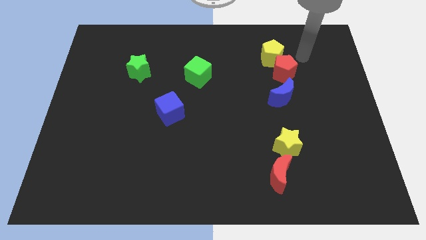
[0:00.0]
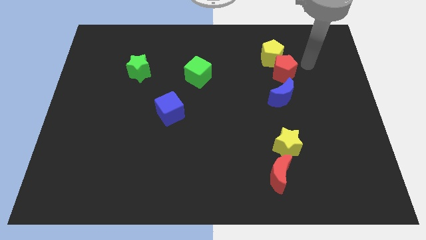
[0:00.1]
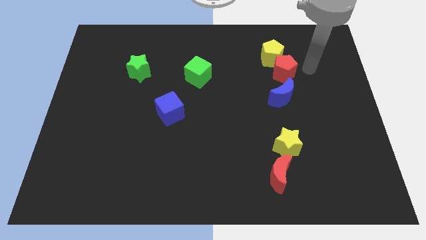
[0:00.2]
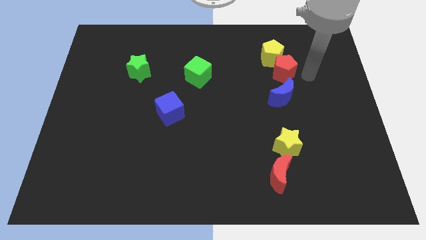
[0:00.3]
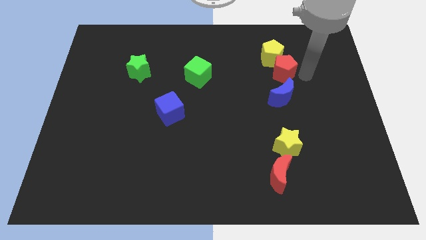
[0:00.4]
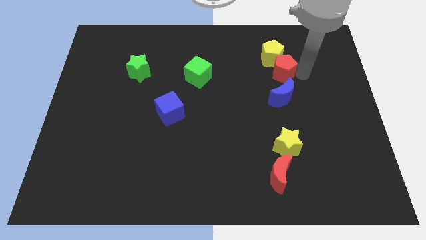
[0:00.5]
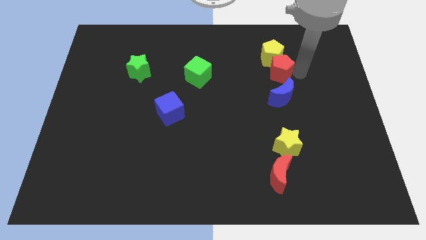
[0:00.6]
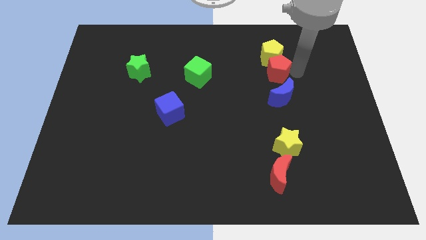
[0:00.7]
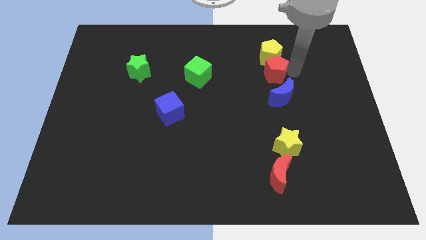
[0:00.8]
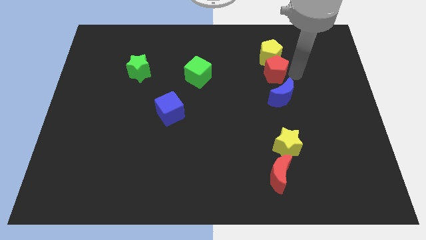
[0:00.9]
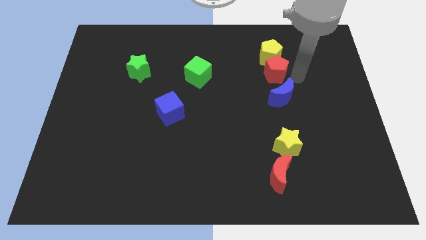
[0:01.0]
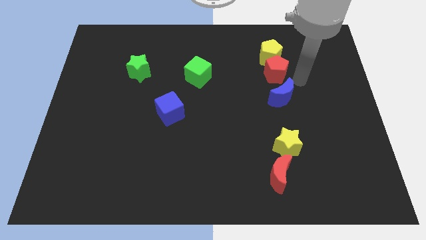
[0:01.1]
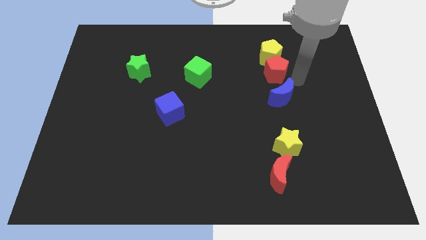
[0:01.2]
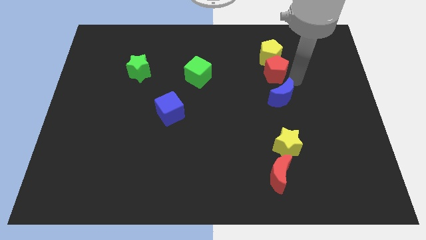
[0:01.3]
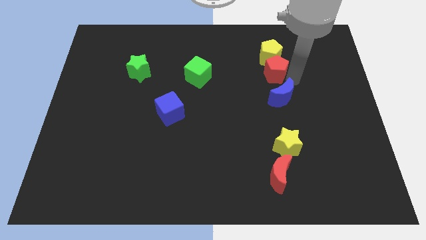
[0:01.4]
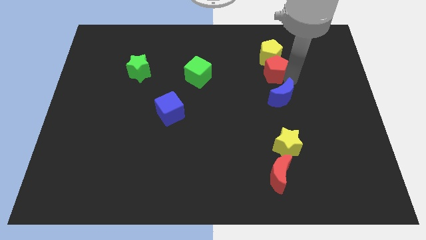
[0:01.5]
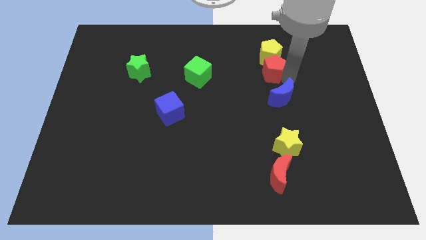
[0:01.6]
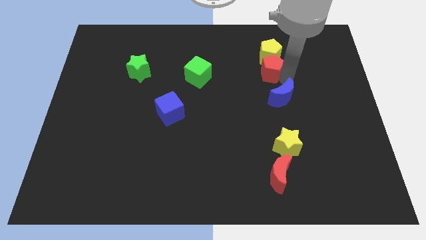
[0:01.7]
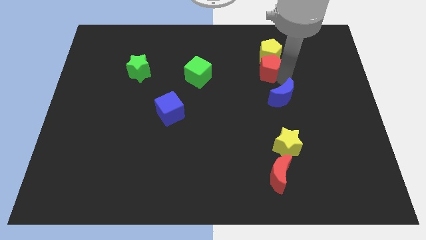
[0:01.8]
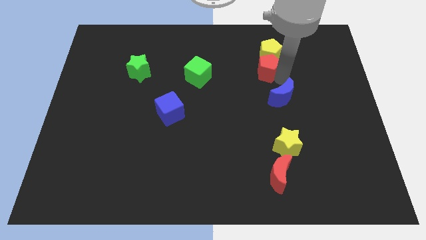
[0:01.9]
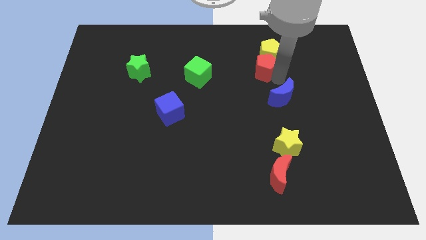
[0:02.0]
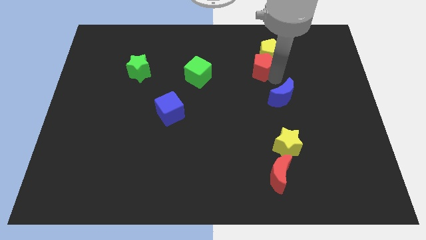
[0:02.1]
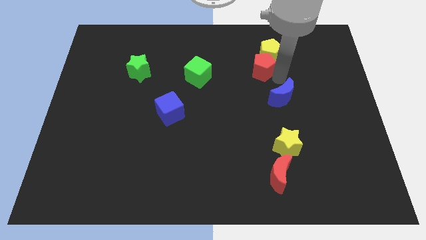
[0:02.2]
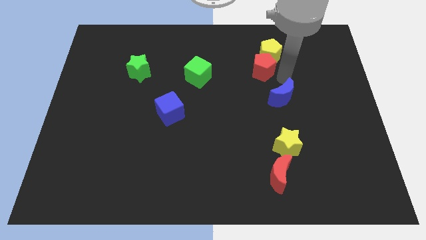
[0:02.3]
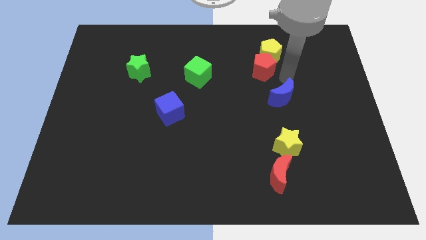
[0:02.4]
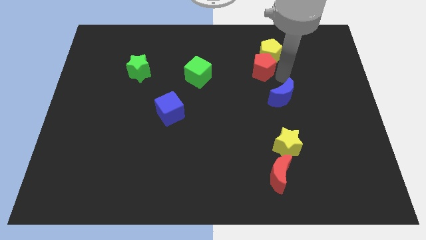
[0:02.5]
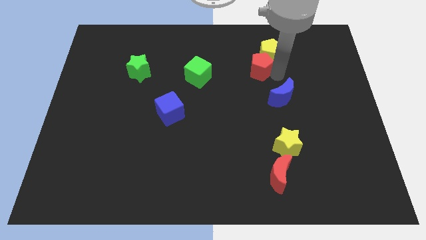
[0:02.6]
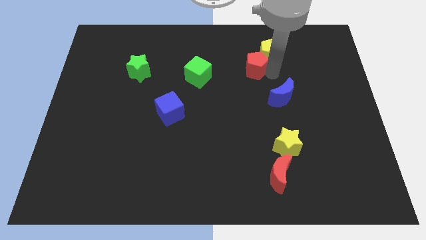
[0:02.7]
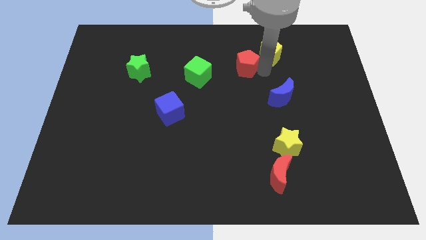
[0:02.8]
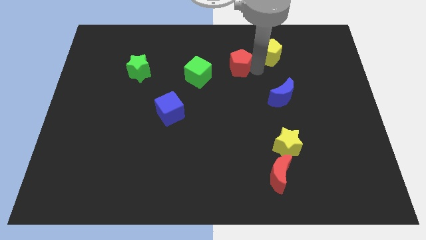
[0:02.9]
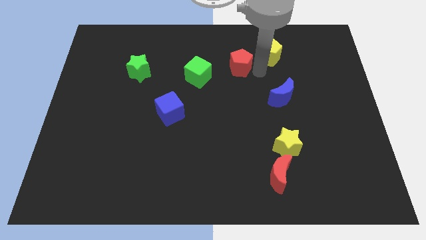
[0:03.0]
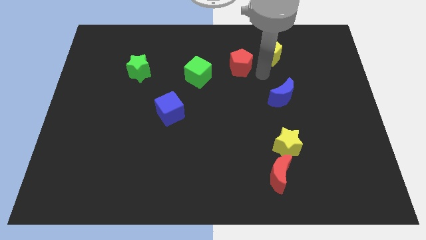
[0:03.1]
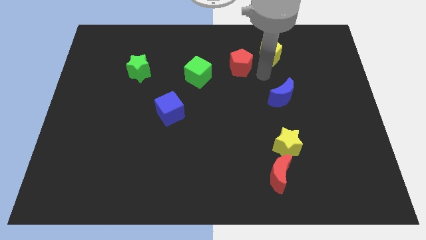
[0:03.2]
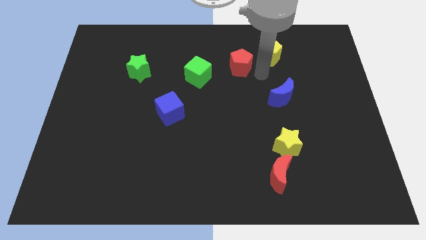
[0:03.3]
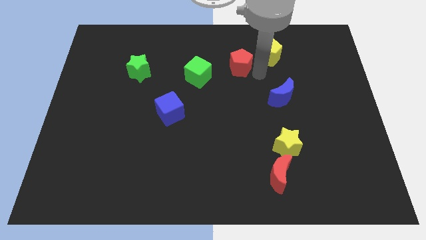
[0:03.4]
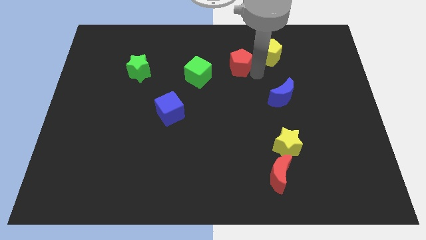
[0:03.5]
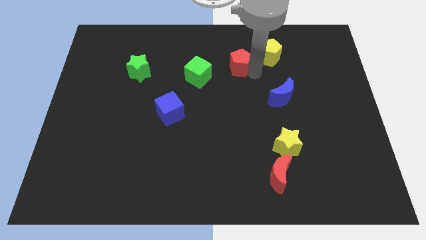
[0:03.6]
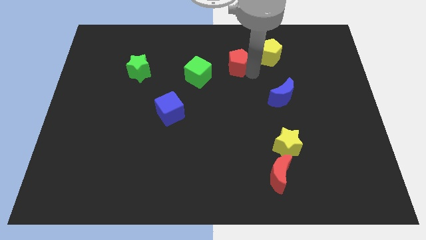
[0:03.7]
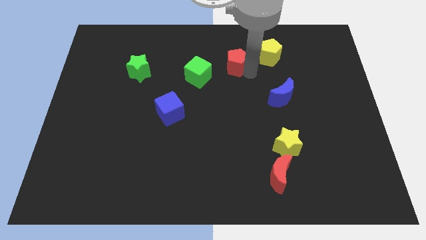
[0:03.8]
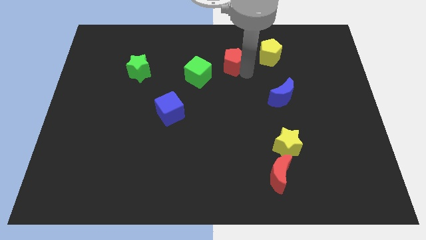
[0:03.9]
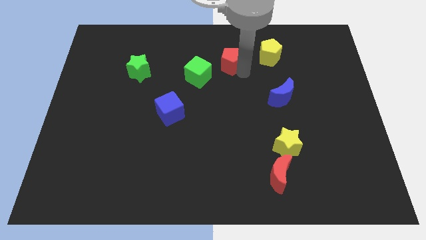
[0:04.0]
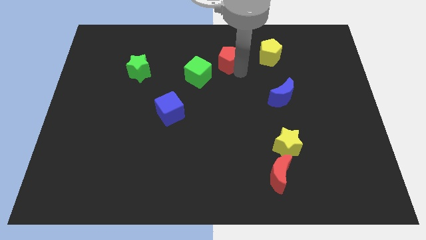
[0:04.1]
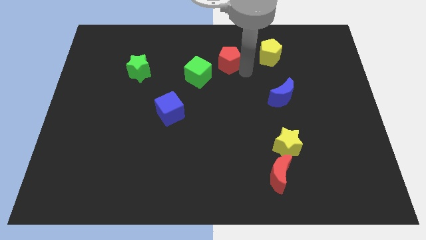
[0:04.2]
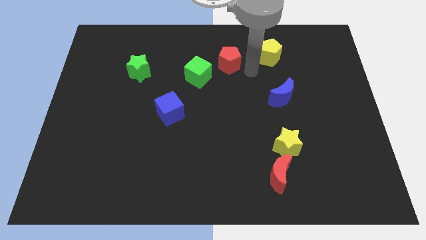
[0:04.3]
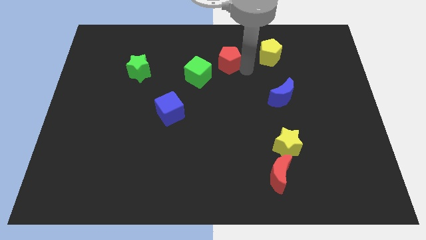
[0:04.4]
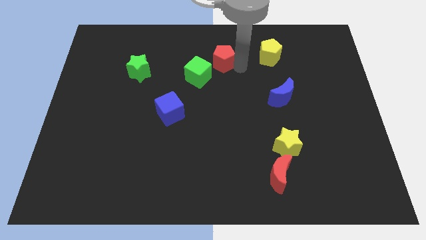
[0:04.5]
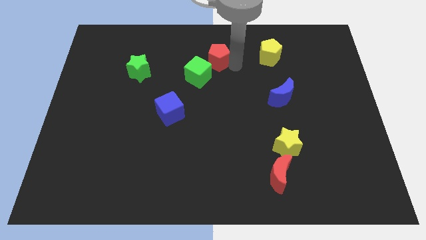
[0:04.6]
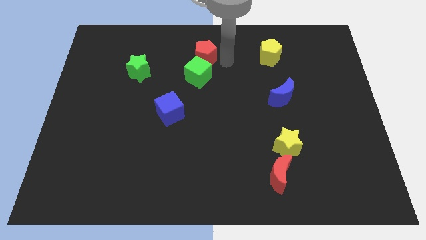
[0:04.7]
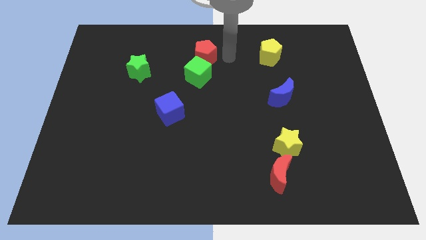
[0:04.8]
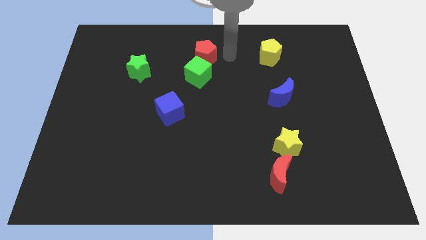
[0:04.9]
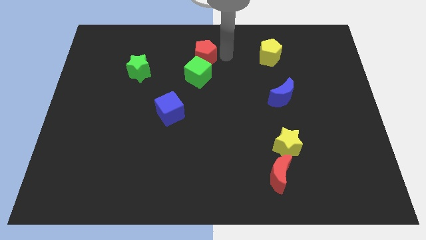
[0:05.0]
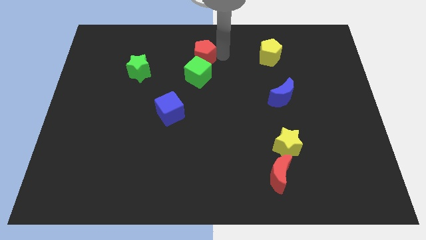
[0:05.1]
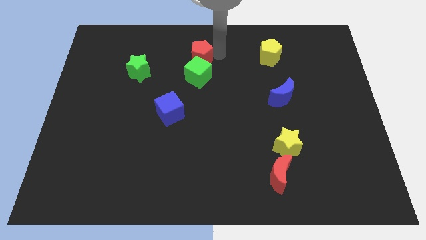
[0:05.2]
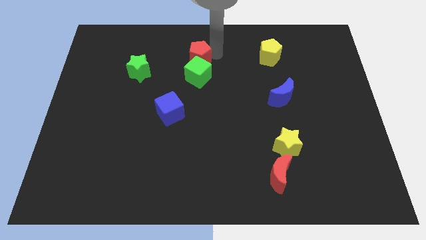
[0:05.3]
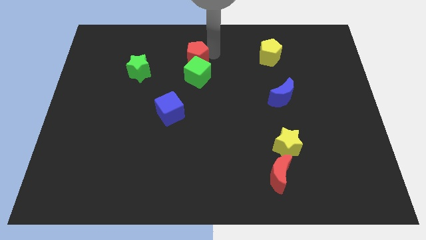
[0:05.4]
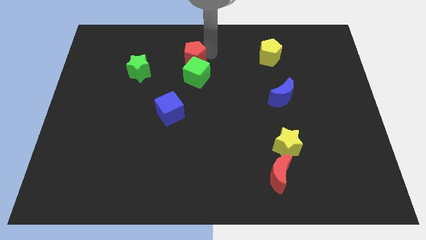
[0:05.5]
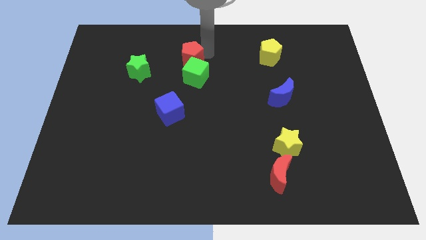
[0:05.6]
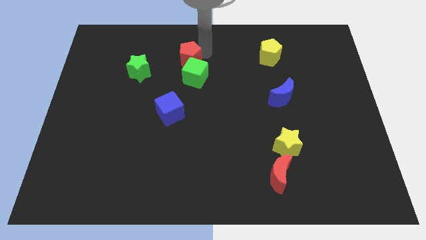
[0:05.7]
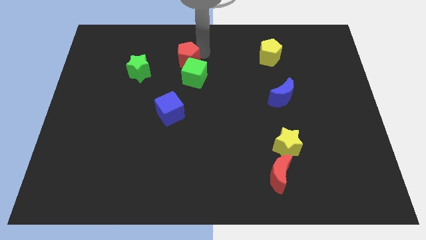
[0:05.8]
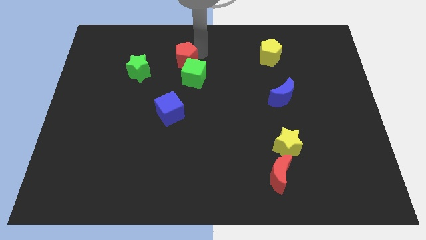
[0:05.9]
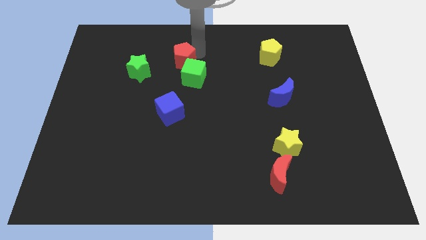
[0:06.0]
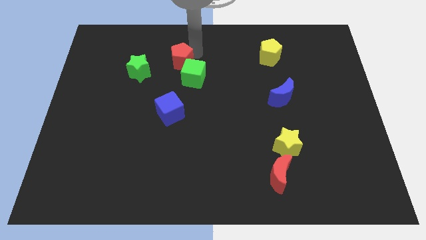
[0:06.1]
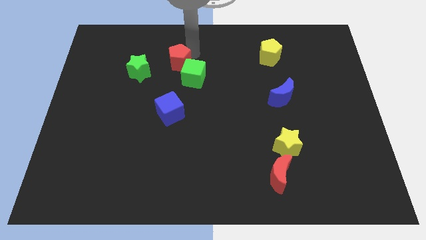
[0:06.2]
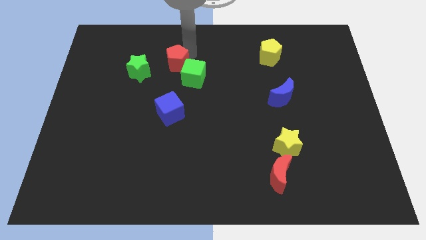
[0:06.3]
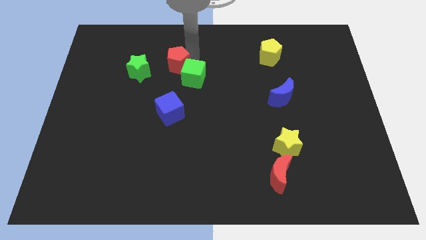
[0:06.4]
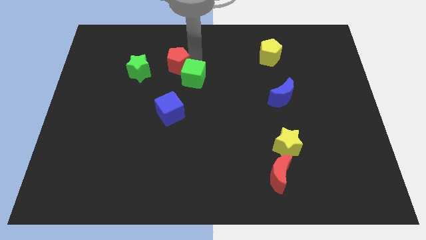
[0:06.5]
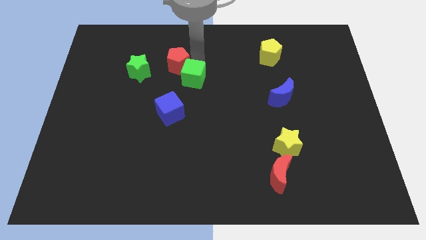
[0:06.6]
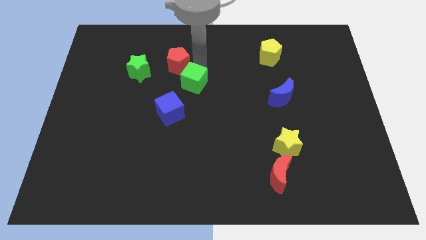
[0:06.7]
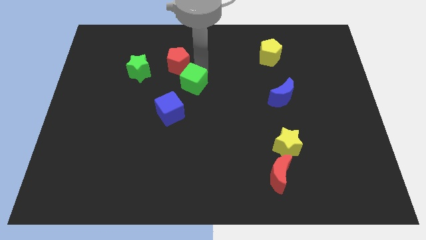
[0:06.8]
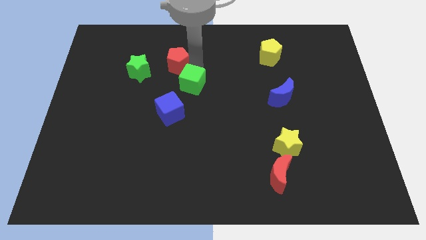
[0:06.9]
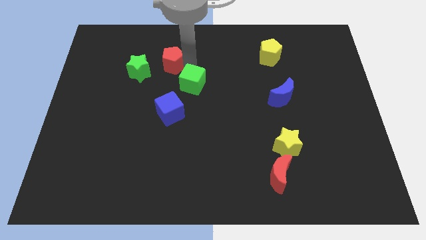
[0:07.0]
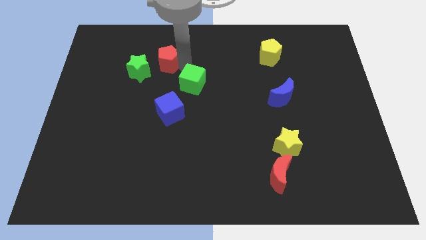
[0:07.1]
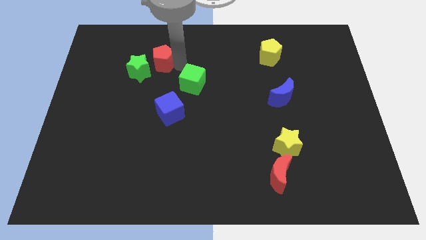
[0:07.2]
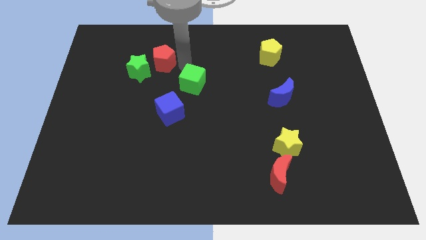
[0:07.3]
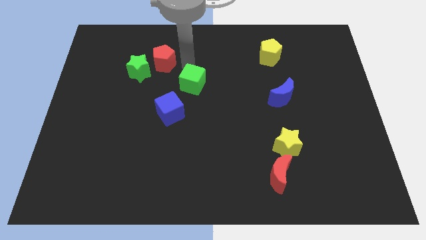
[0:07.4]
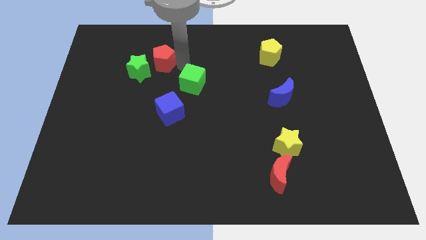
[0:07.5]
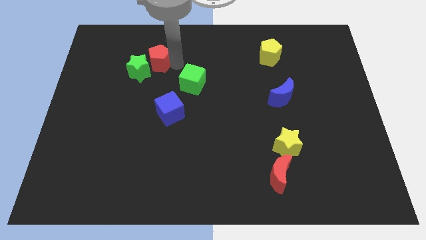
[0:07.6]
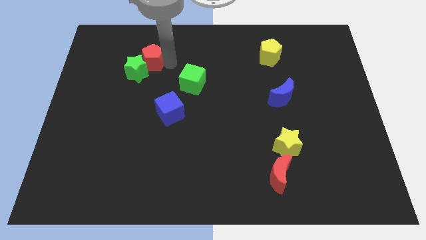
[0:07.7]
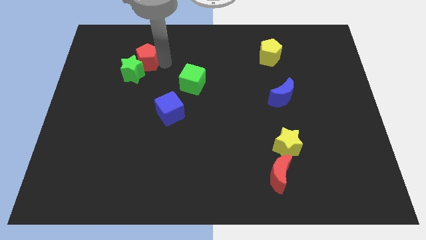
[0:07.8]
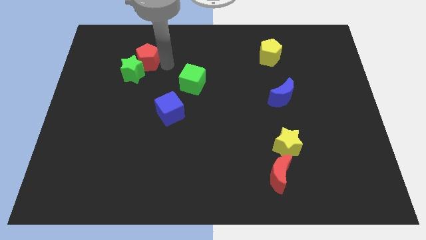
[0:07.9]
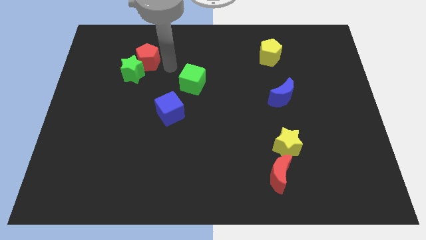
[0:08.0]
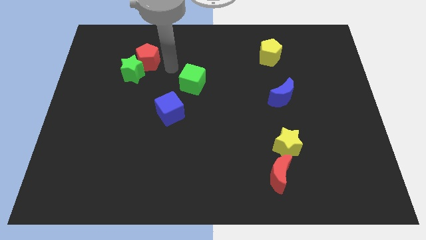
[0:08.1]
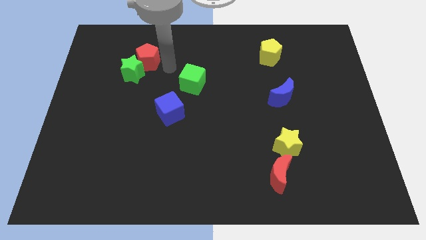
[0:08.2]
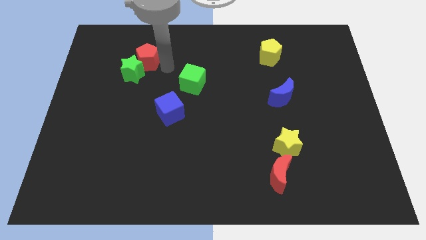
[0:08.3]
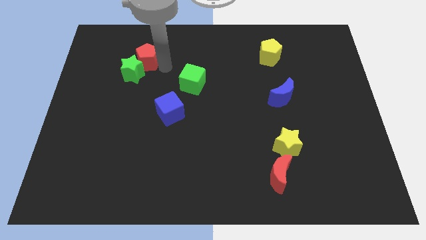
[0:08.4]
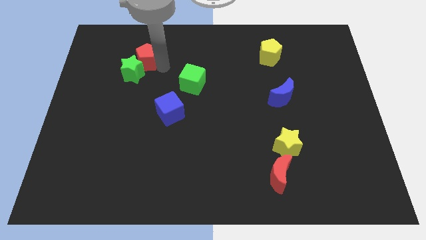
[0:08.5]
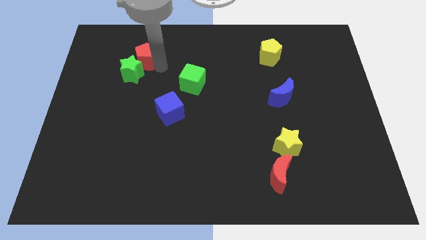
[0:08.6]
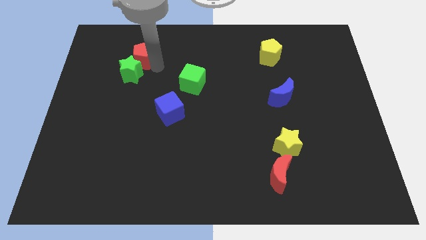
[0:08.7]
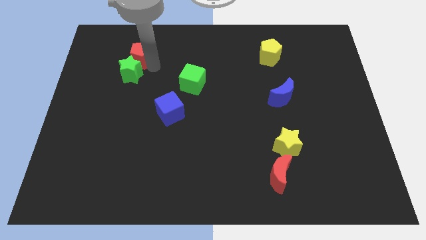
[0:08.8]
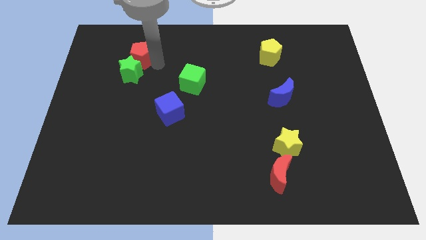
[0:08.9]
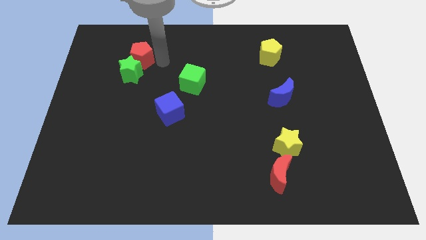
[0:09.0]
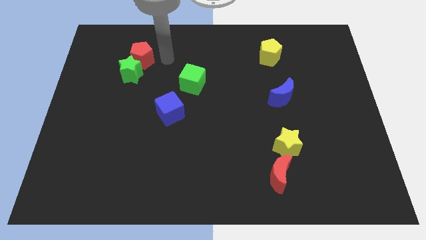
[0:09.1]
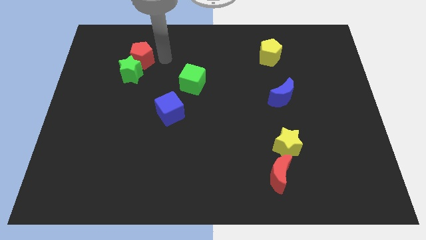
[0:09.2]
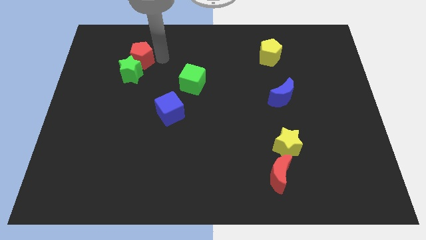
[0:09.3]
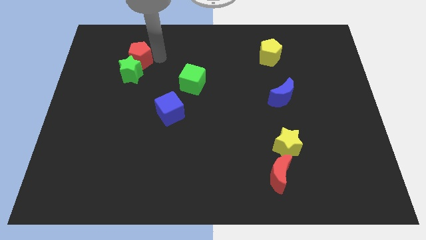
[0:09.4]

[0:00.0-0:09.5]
move the red pentagon diagonally up and to the left of the green star
